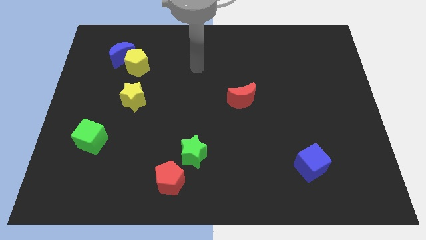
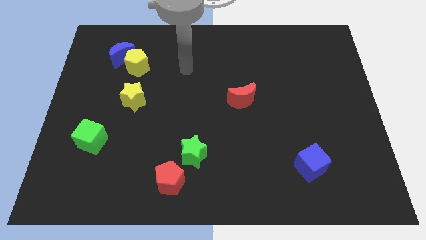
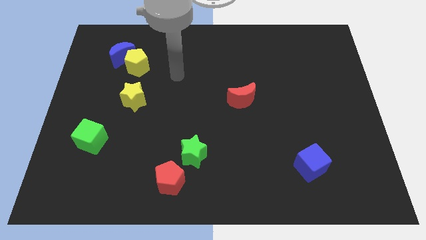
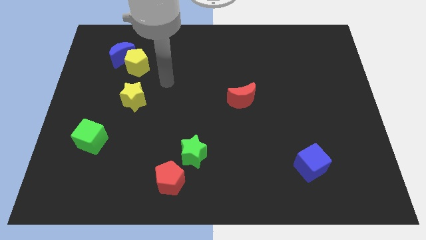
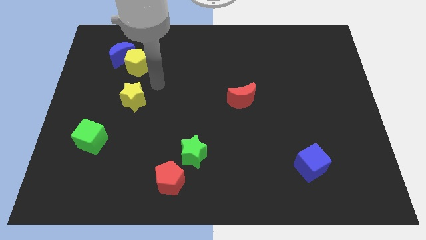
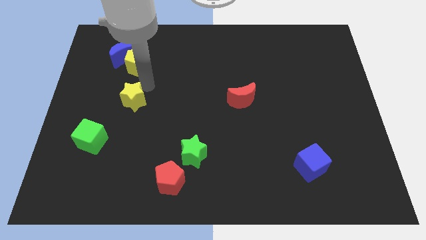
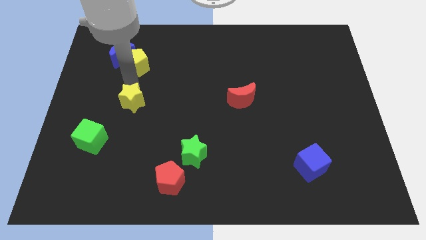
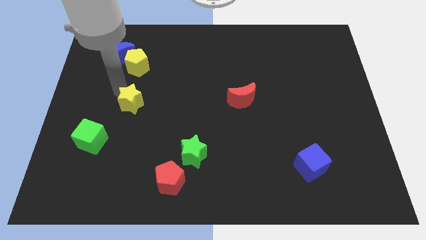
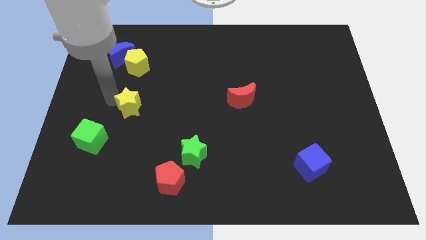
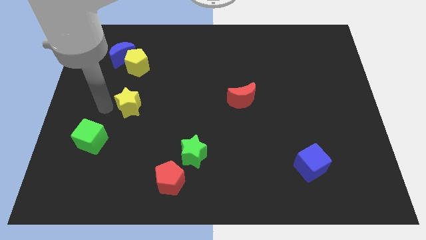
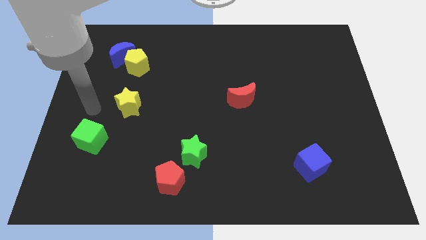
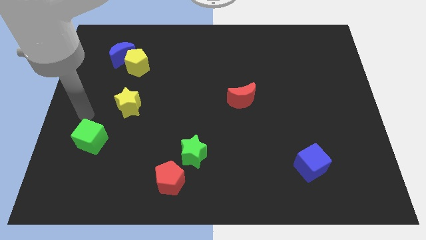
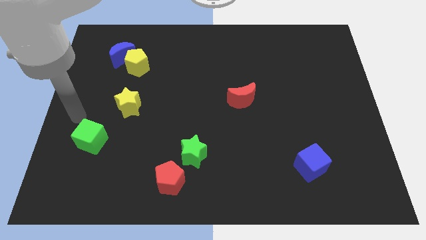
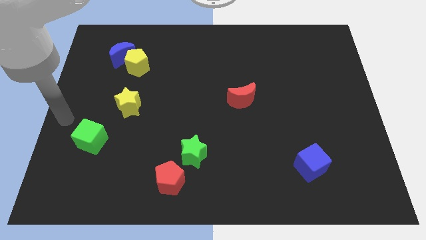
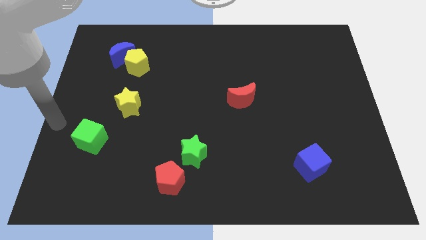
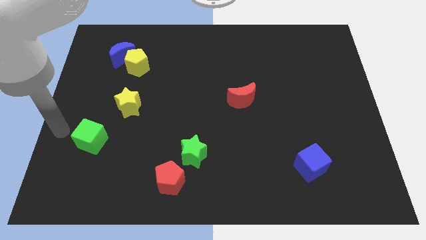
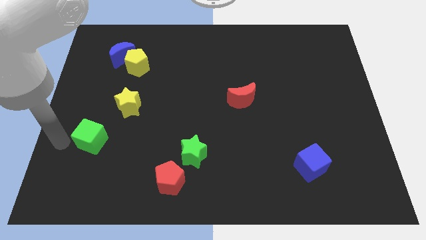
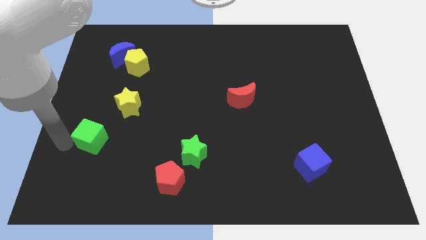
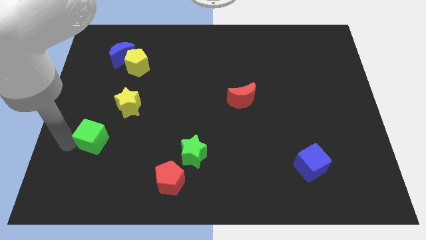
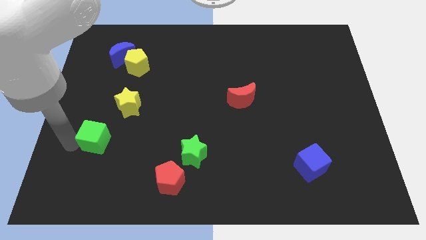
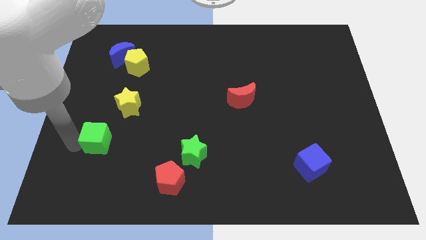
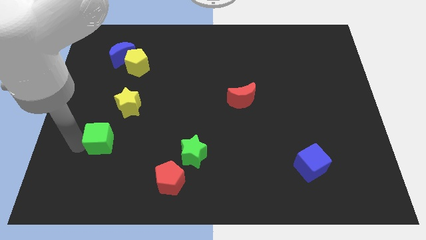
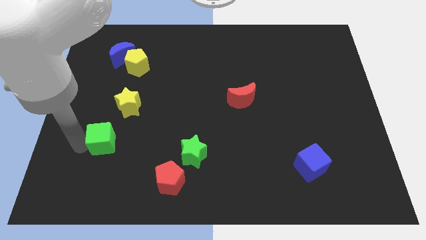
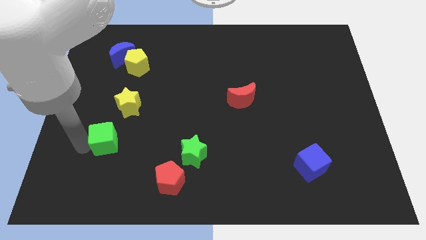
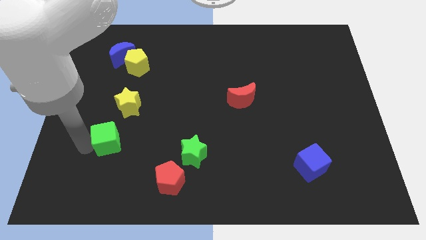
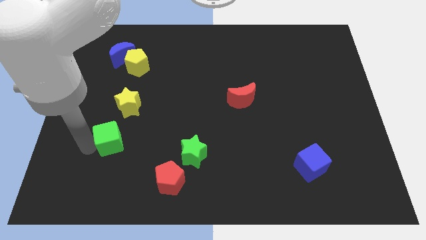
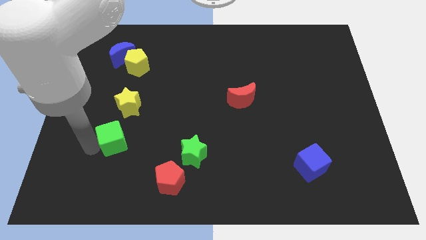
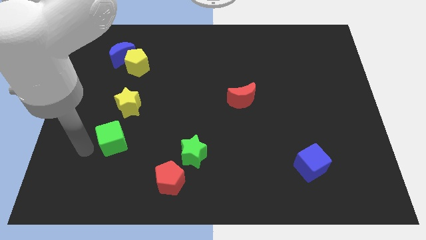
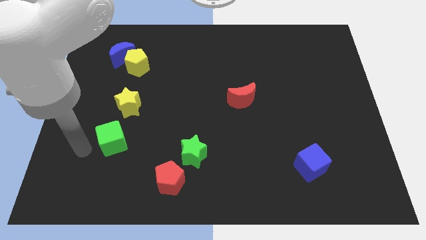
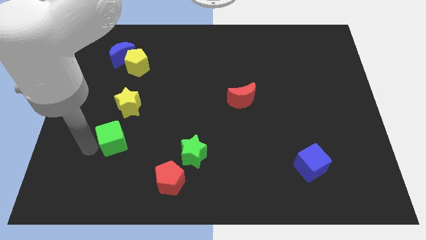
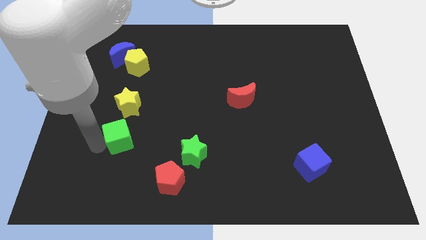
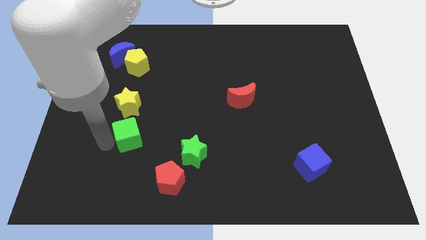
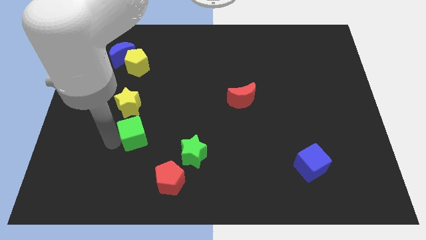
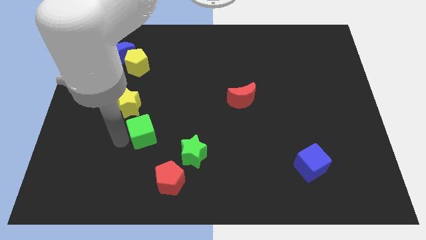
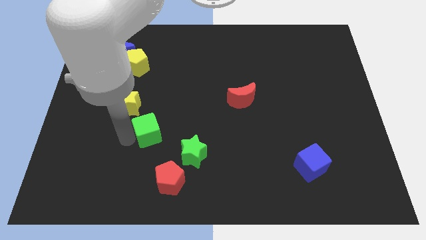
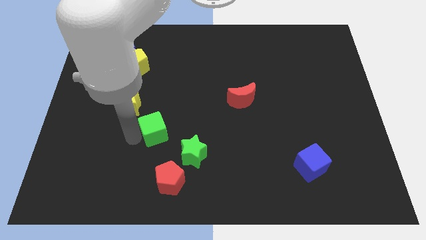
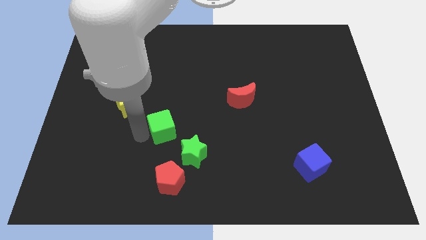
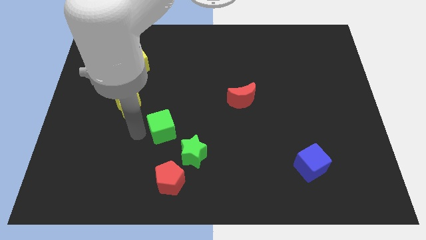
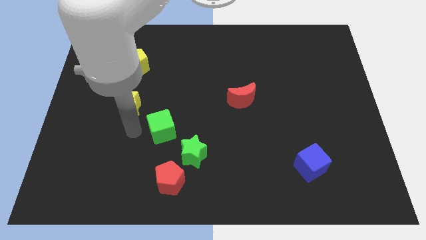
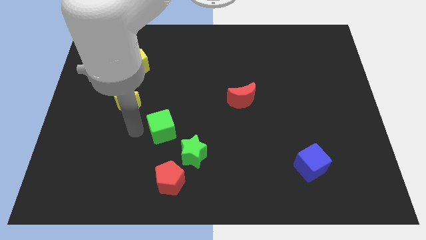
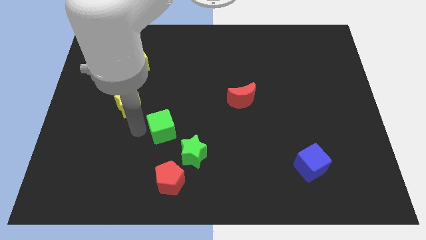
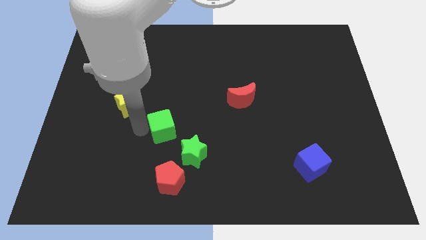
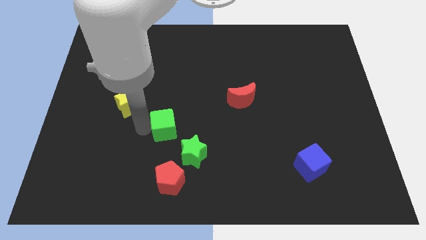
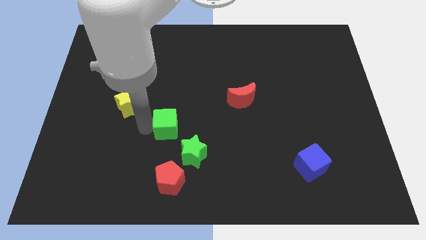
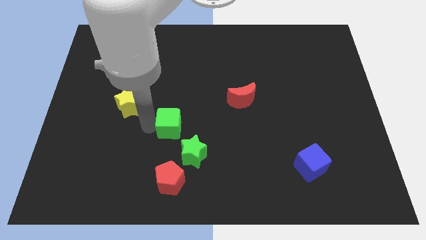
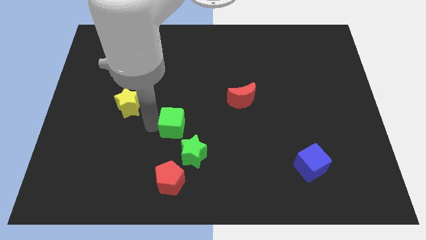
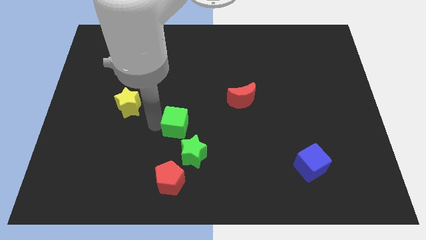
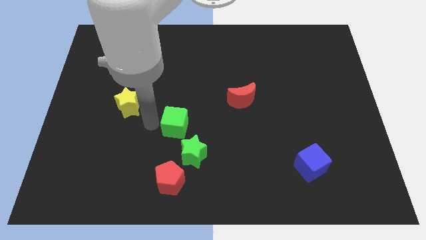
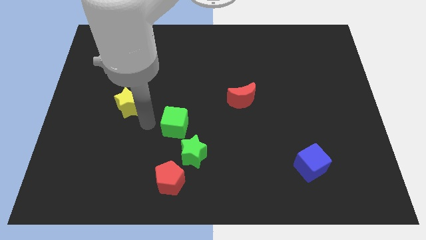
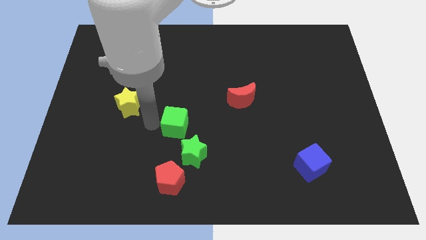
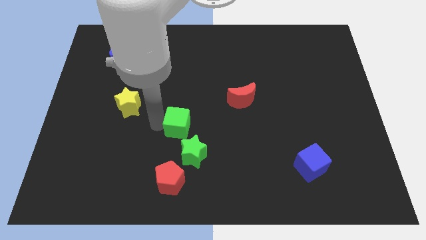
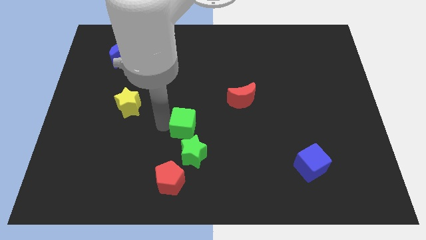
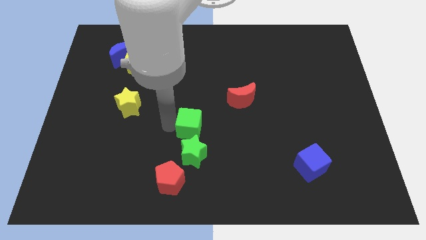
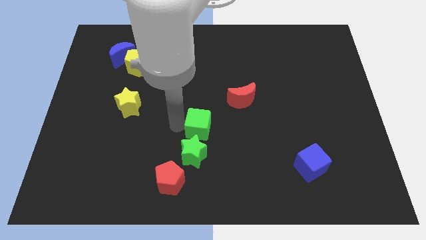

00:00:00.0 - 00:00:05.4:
put the green cube diagonally up and to the right of the green star

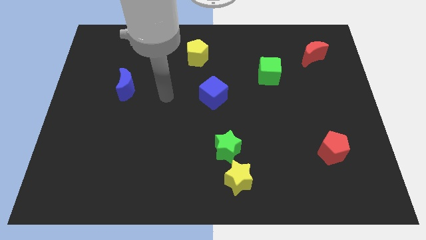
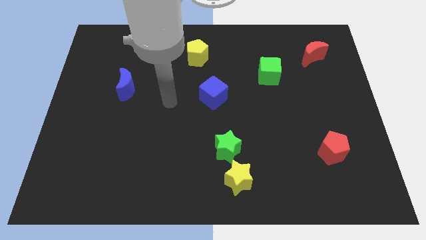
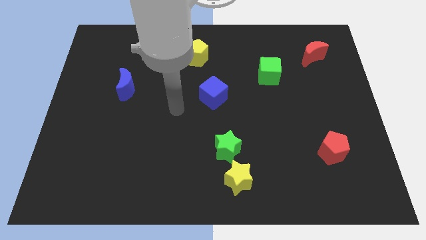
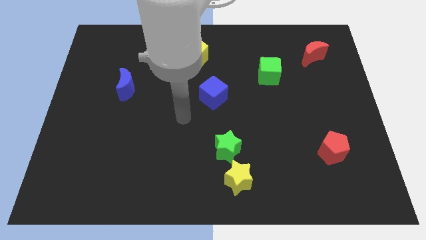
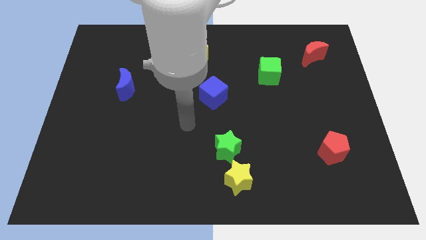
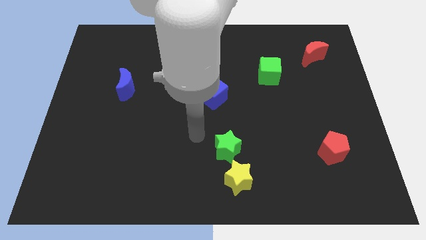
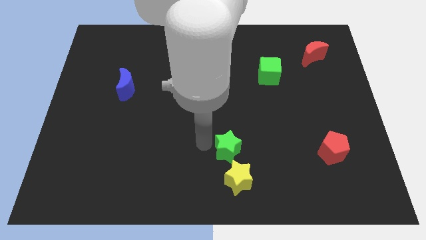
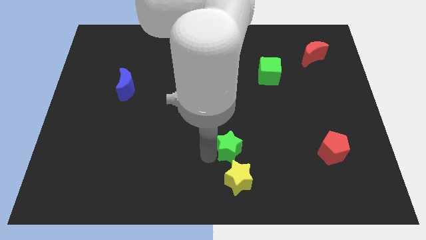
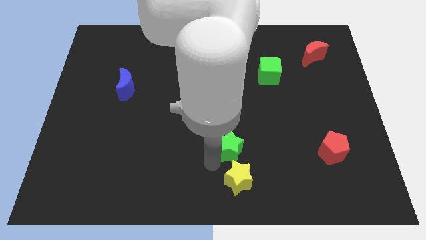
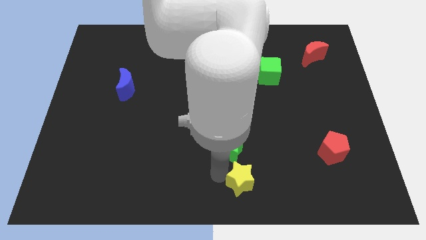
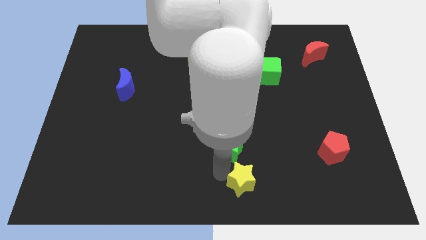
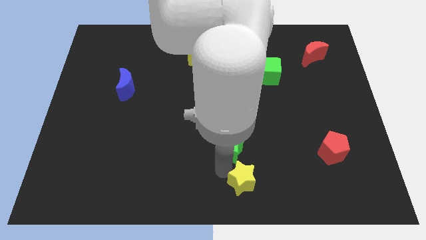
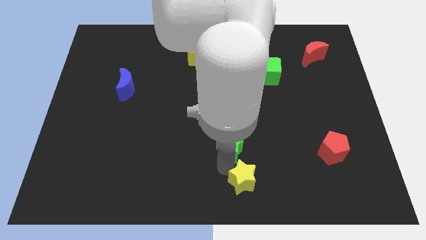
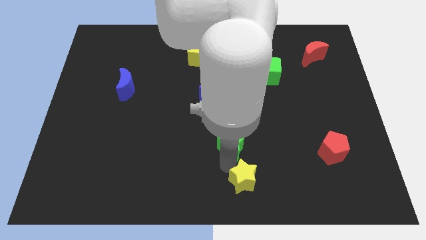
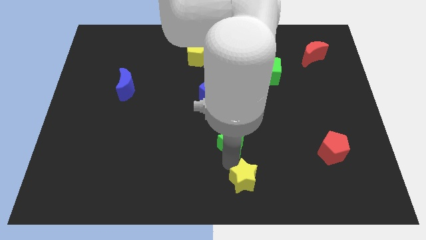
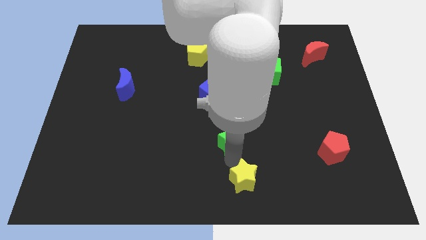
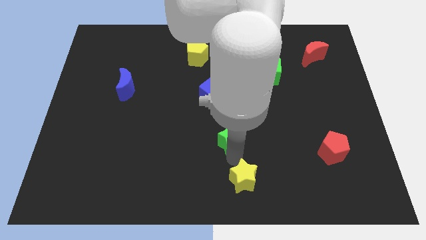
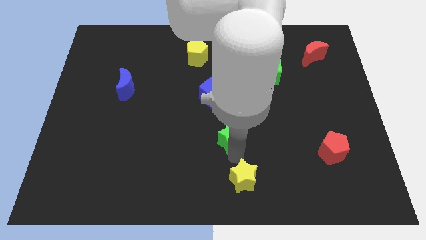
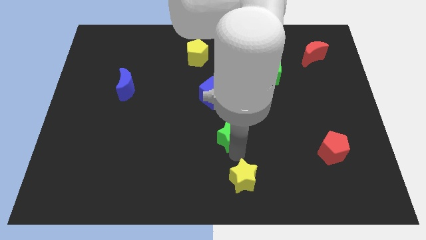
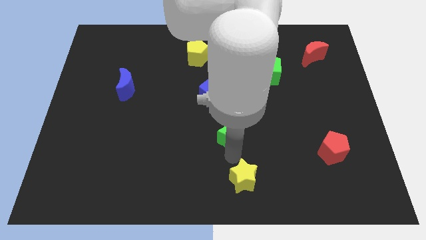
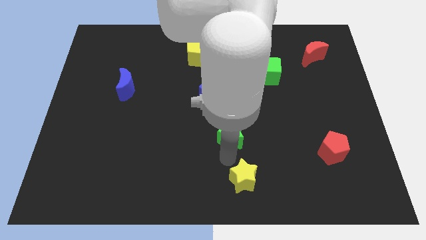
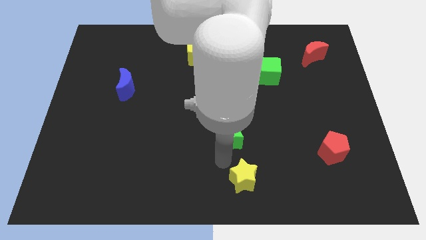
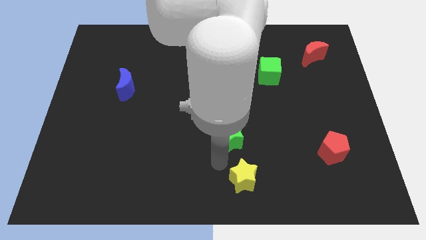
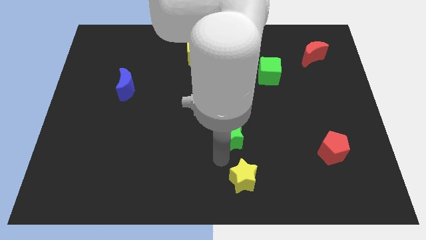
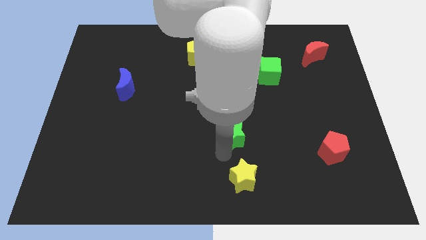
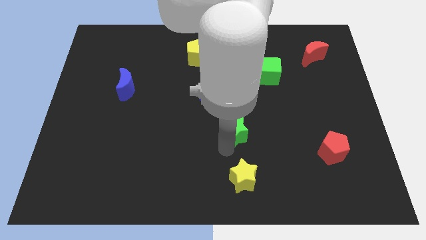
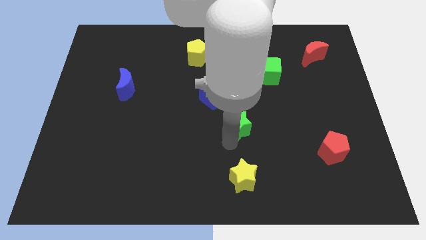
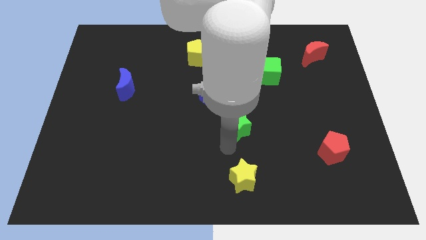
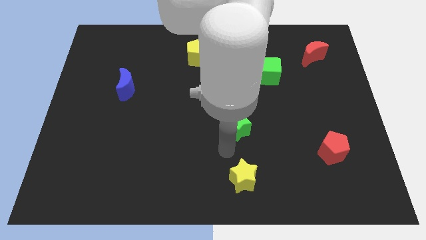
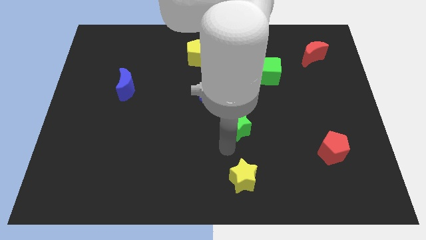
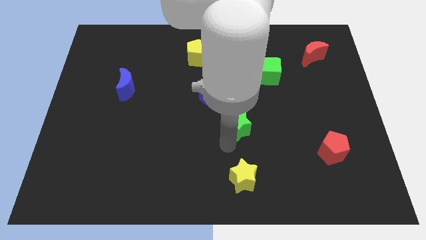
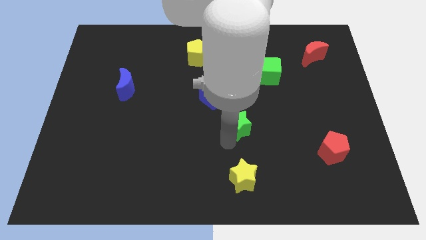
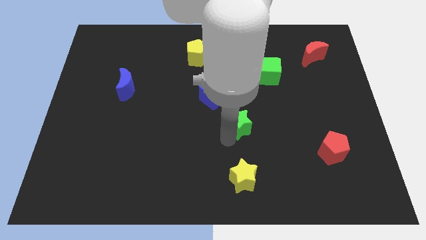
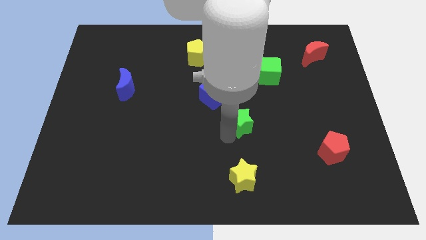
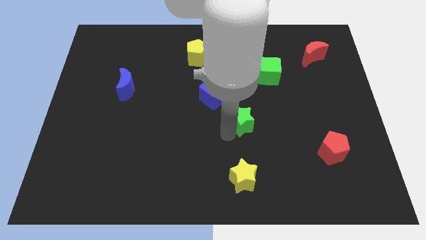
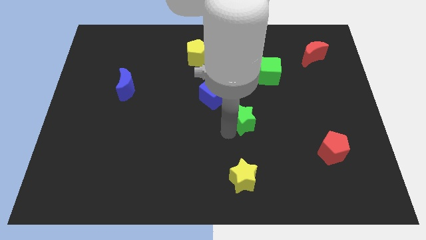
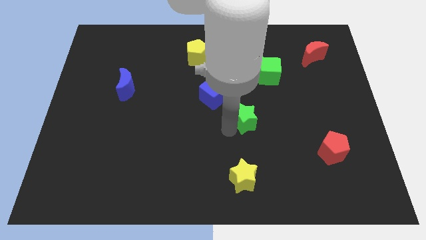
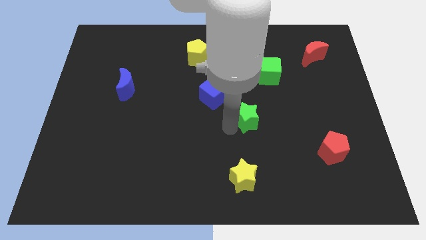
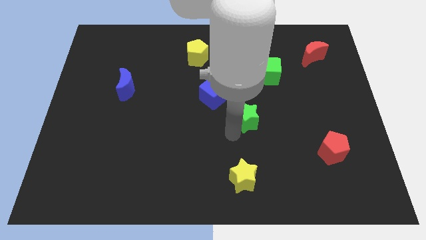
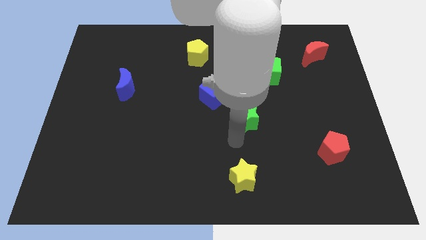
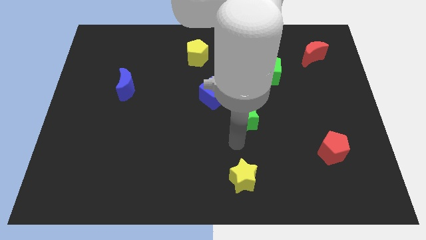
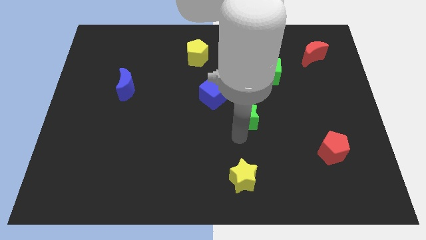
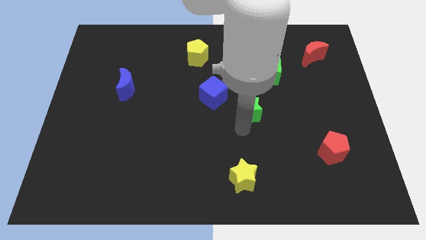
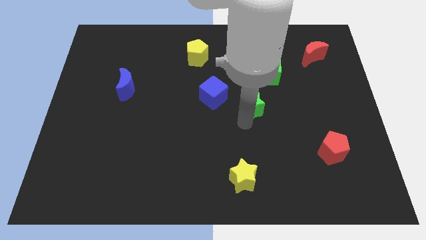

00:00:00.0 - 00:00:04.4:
push the green star just right of the blue cube
